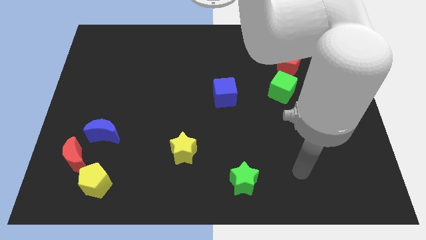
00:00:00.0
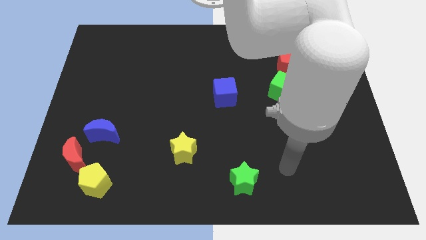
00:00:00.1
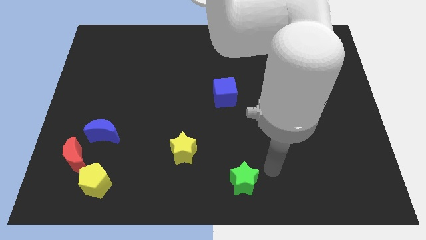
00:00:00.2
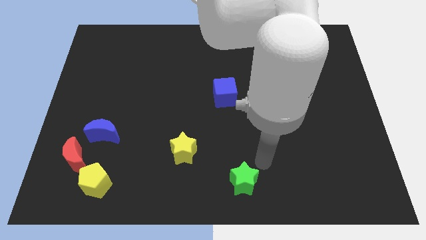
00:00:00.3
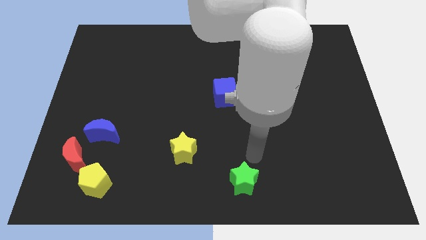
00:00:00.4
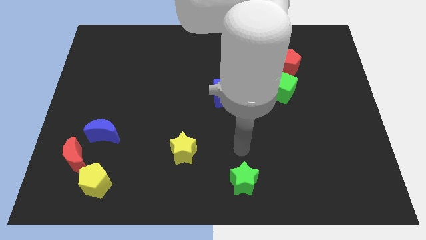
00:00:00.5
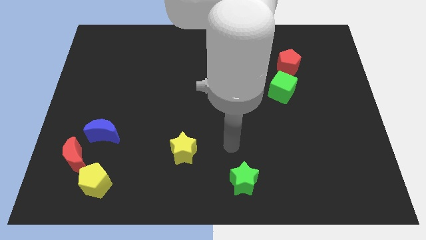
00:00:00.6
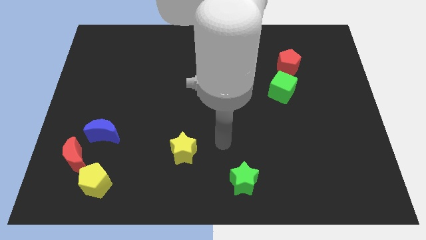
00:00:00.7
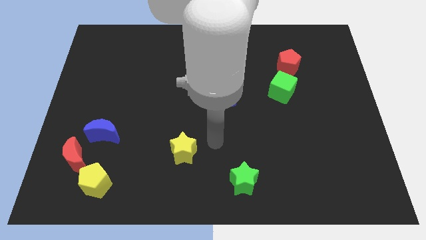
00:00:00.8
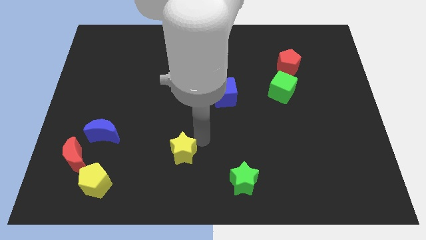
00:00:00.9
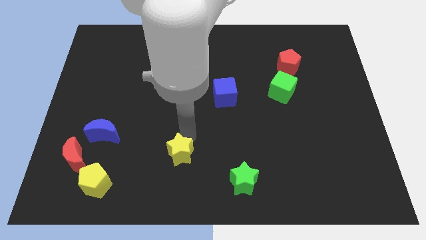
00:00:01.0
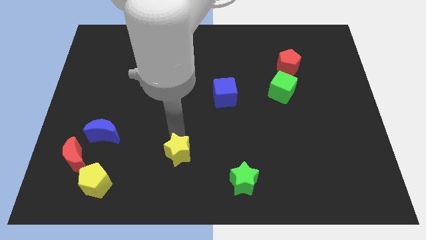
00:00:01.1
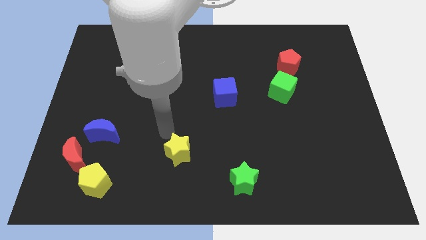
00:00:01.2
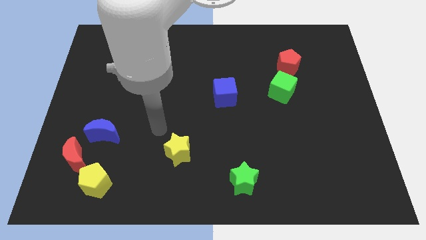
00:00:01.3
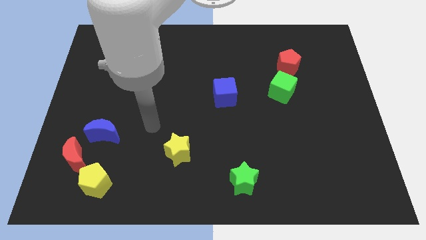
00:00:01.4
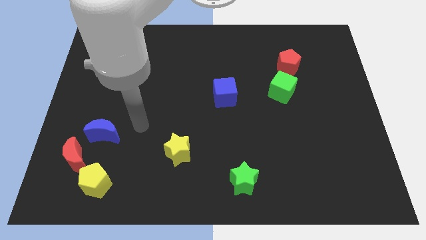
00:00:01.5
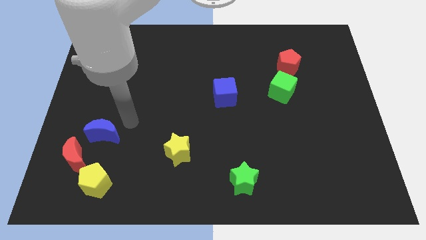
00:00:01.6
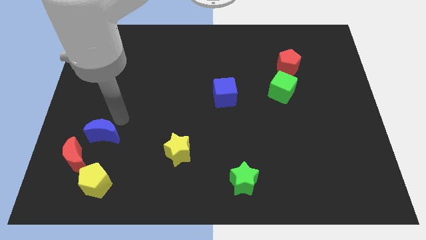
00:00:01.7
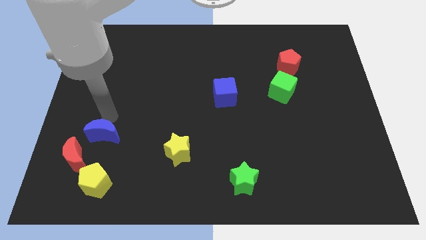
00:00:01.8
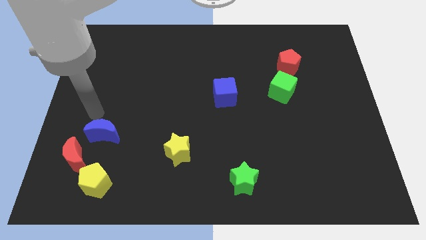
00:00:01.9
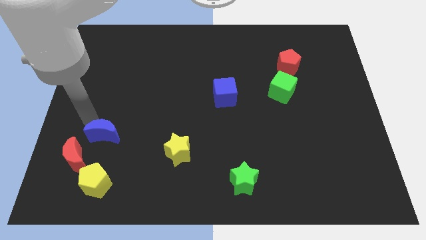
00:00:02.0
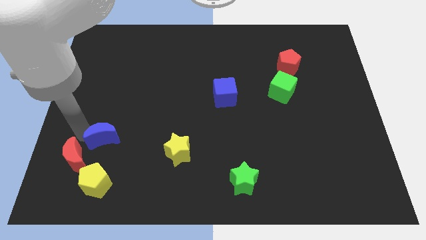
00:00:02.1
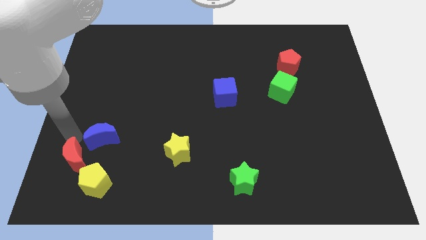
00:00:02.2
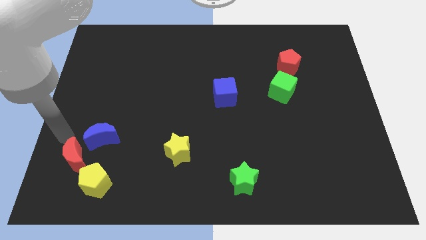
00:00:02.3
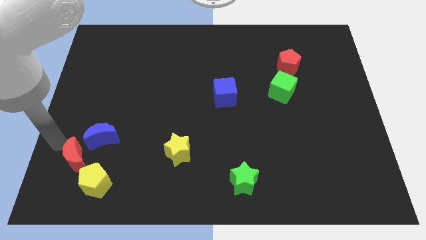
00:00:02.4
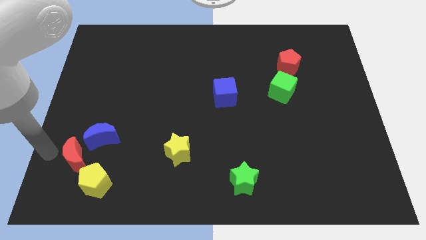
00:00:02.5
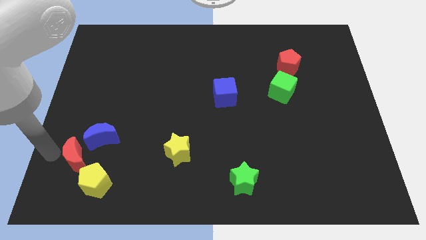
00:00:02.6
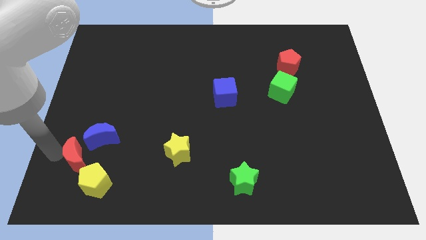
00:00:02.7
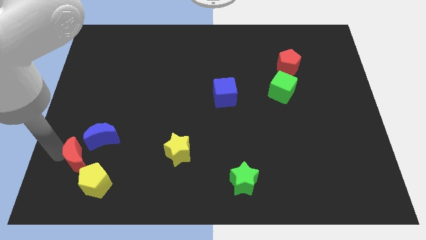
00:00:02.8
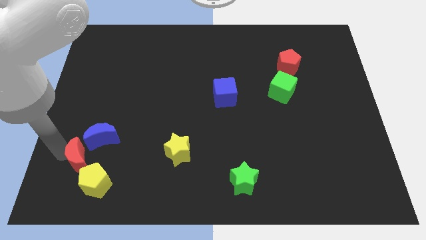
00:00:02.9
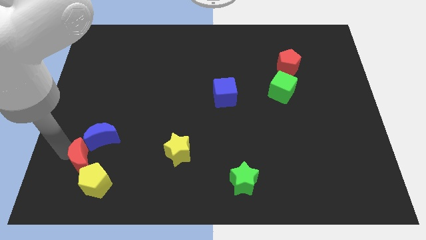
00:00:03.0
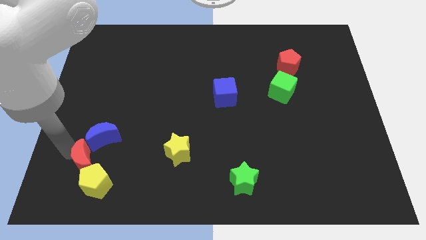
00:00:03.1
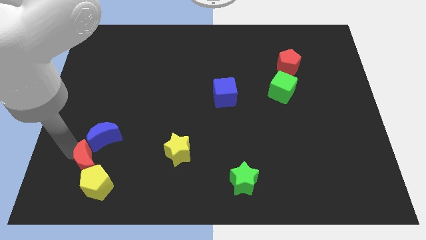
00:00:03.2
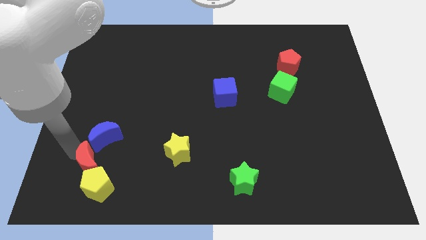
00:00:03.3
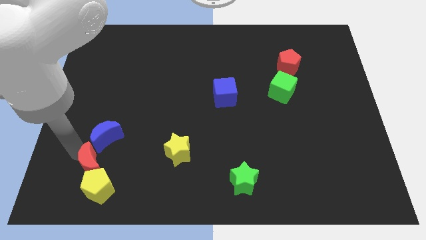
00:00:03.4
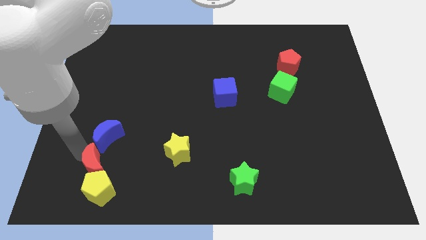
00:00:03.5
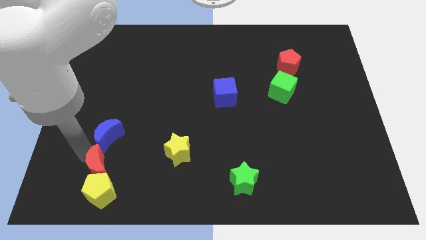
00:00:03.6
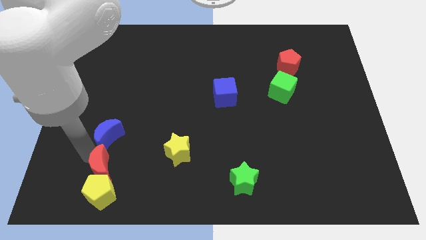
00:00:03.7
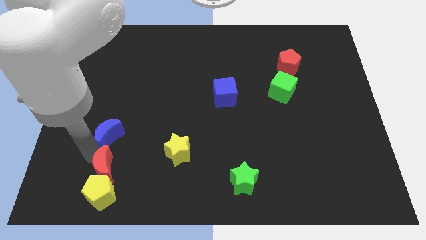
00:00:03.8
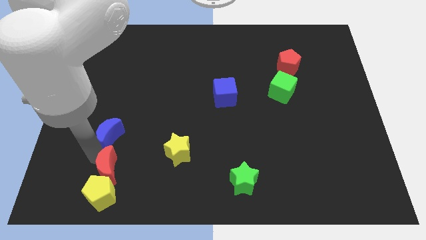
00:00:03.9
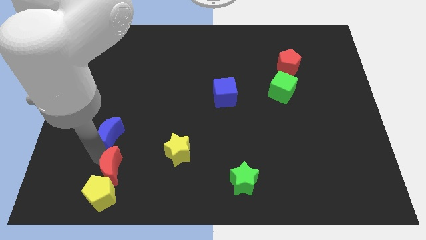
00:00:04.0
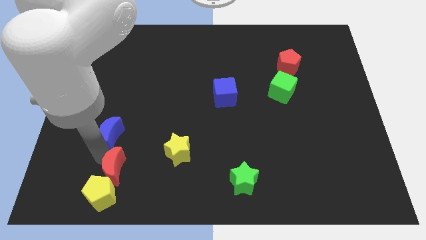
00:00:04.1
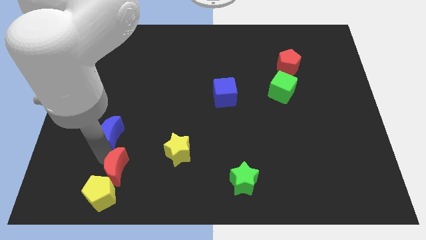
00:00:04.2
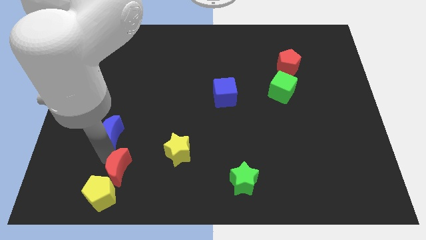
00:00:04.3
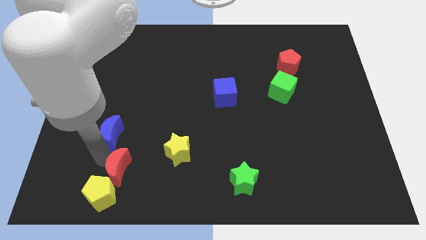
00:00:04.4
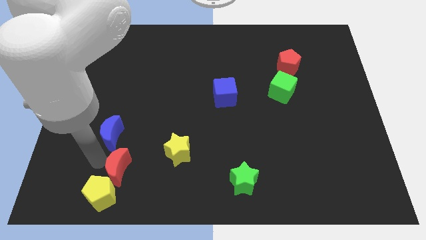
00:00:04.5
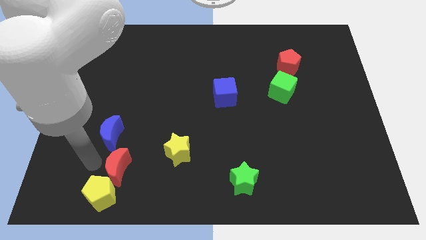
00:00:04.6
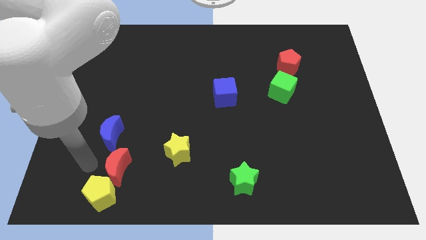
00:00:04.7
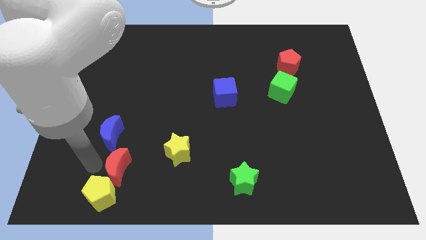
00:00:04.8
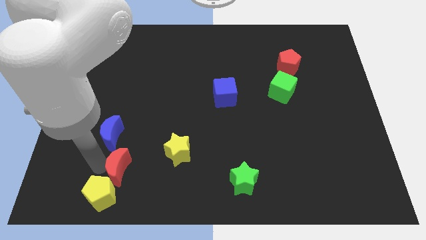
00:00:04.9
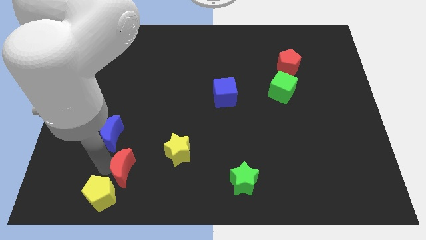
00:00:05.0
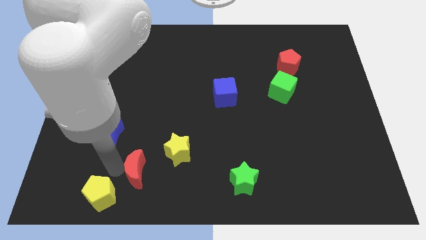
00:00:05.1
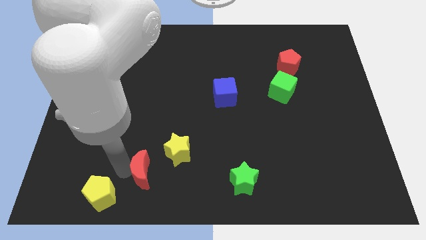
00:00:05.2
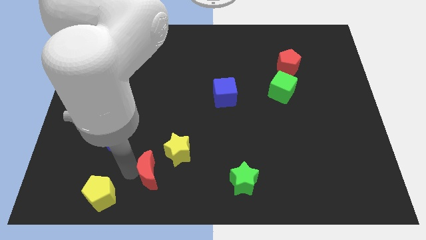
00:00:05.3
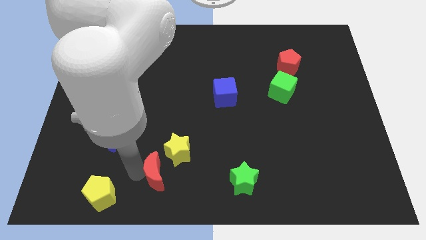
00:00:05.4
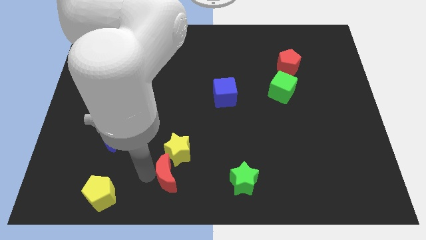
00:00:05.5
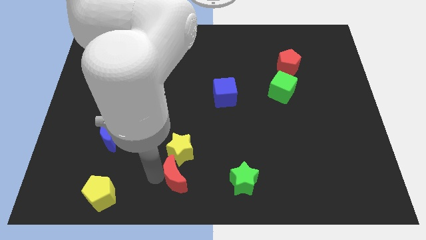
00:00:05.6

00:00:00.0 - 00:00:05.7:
move the red moon to the bottom right side of the yellow star

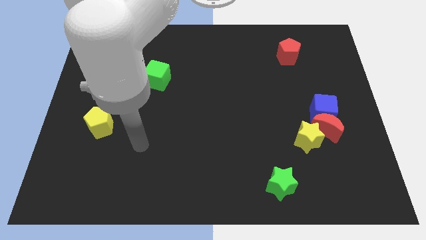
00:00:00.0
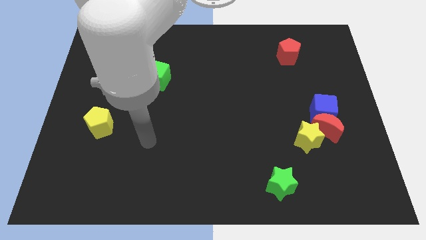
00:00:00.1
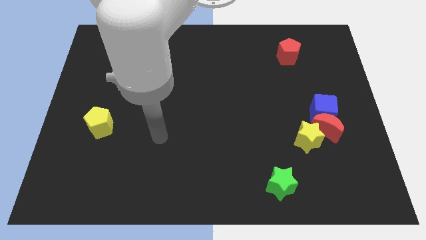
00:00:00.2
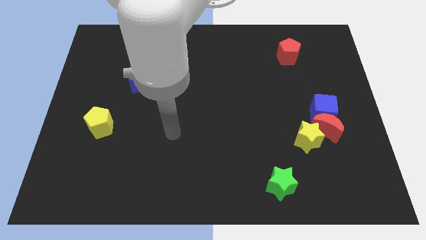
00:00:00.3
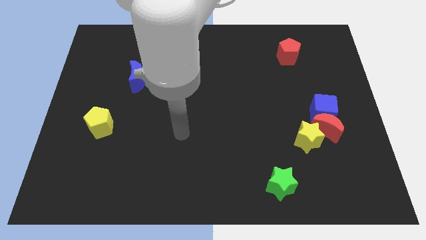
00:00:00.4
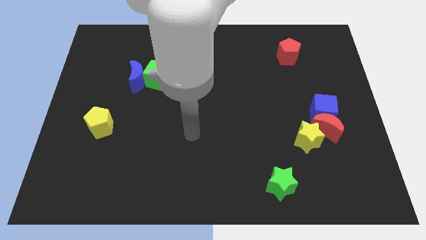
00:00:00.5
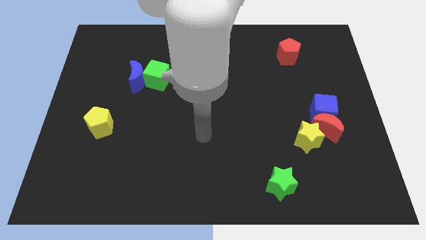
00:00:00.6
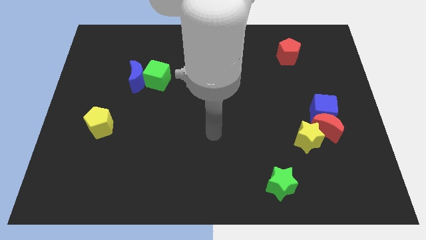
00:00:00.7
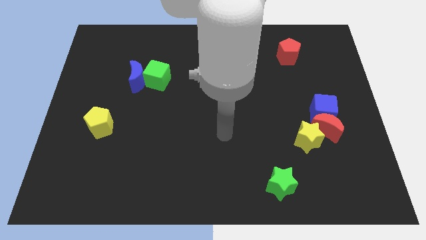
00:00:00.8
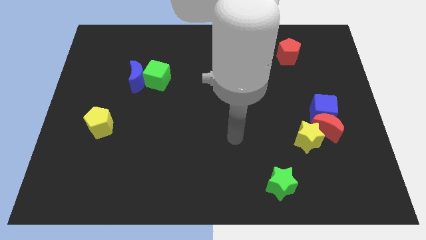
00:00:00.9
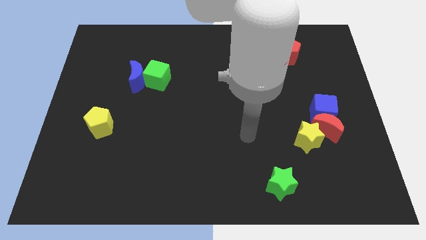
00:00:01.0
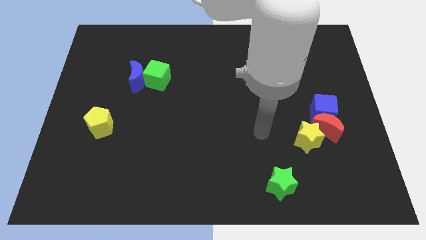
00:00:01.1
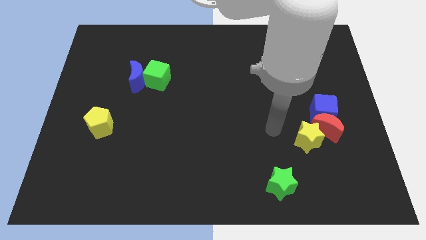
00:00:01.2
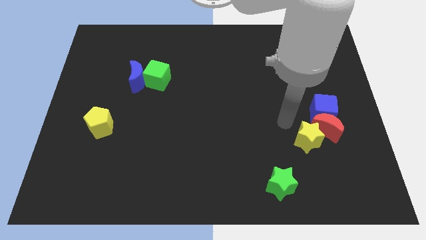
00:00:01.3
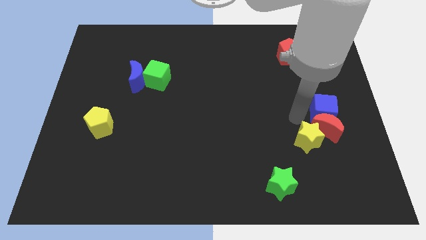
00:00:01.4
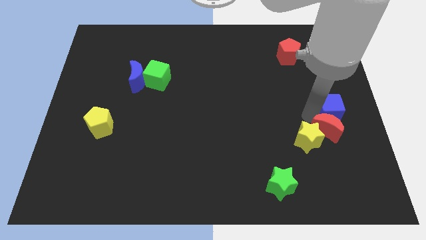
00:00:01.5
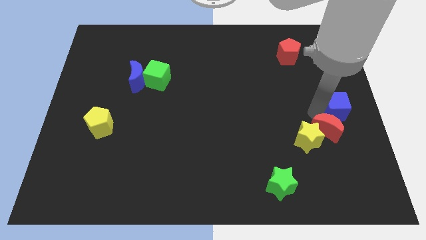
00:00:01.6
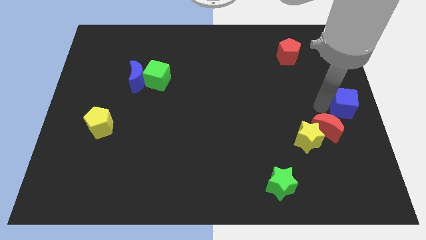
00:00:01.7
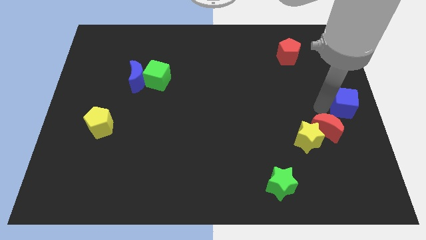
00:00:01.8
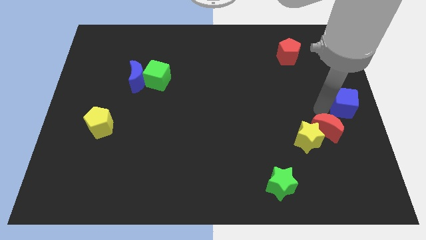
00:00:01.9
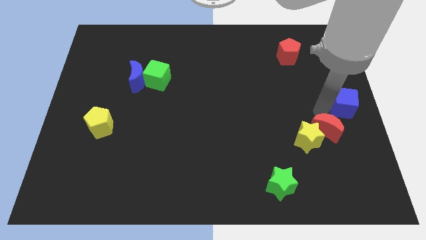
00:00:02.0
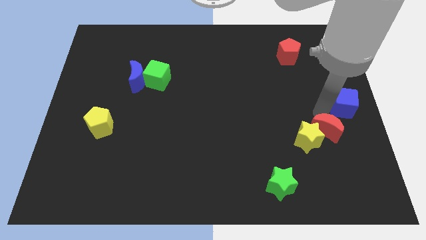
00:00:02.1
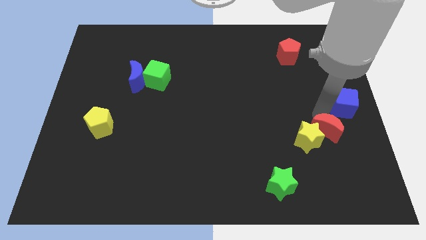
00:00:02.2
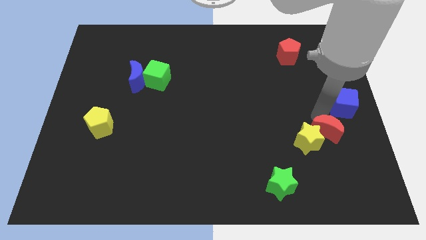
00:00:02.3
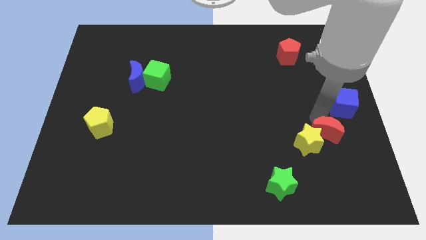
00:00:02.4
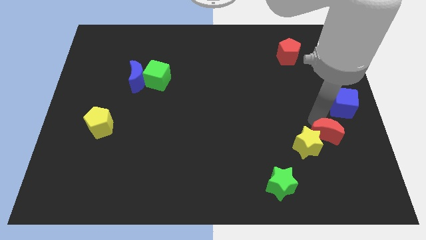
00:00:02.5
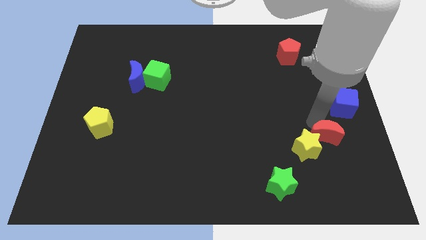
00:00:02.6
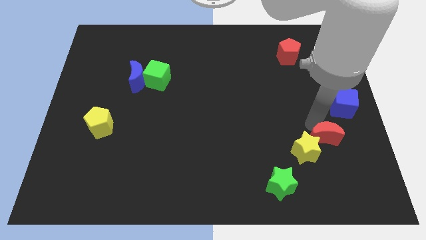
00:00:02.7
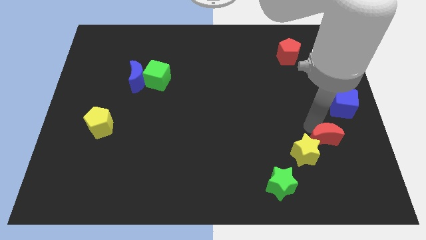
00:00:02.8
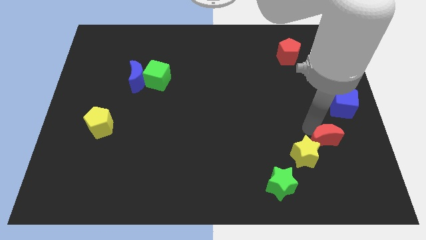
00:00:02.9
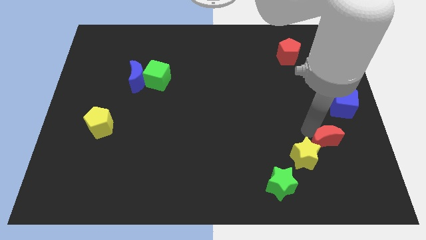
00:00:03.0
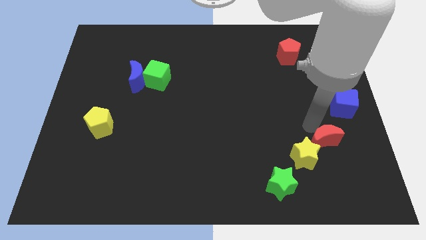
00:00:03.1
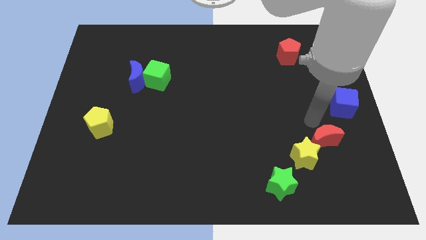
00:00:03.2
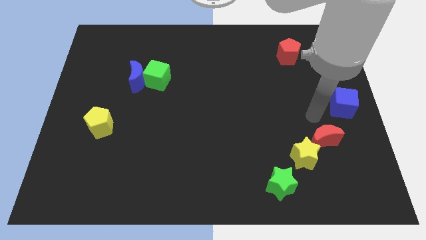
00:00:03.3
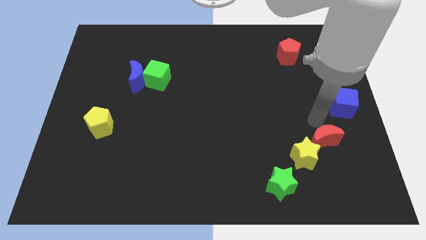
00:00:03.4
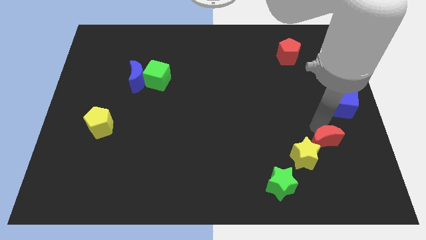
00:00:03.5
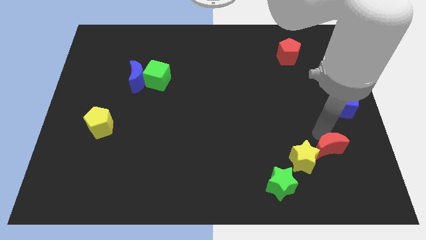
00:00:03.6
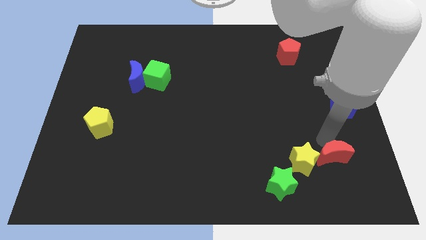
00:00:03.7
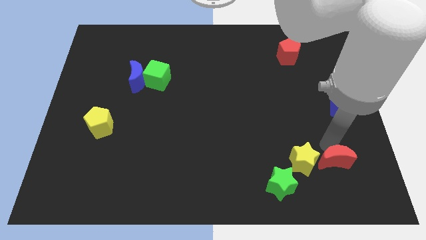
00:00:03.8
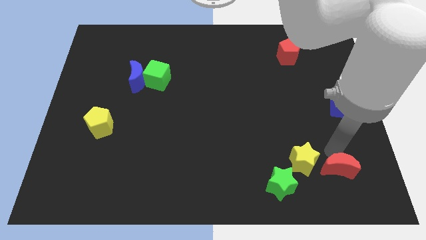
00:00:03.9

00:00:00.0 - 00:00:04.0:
push the red moon just right of the green star
